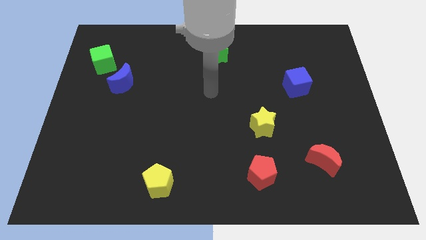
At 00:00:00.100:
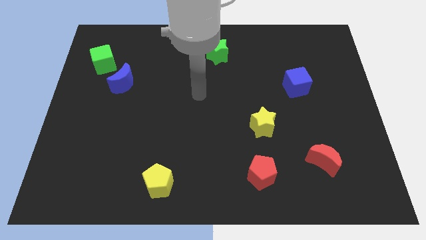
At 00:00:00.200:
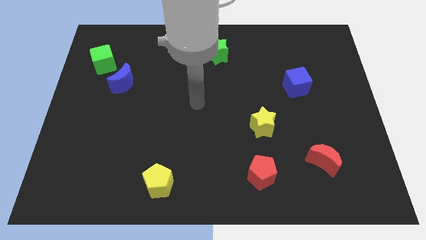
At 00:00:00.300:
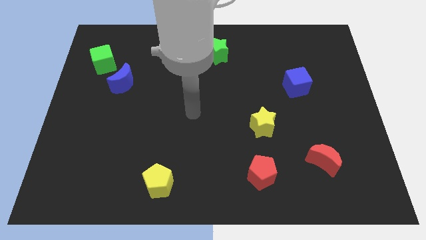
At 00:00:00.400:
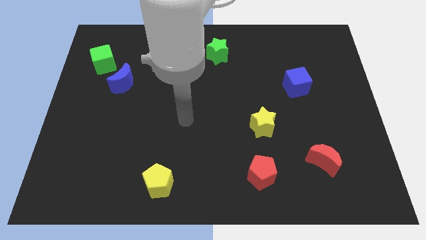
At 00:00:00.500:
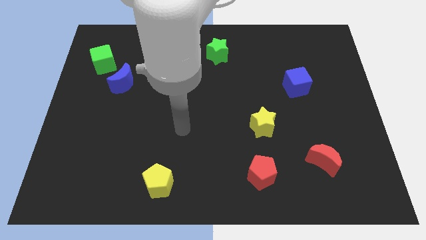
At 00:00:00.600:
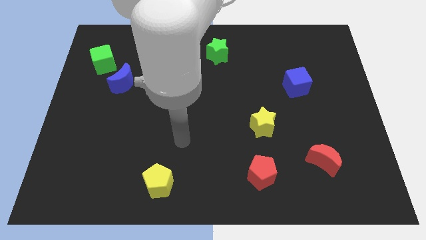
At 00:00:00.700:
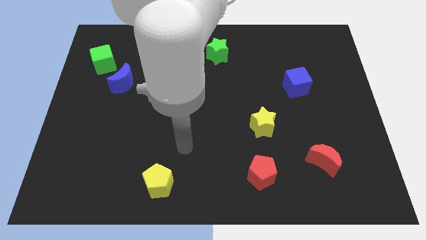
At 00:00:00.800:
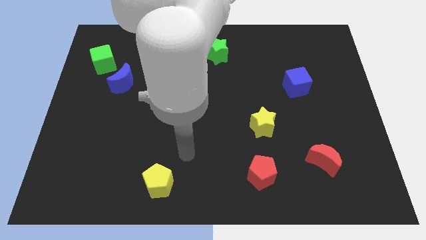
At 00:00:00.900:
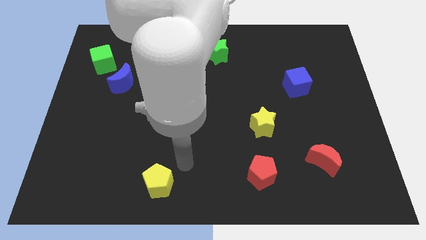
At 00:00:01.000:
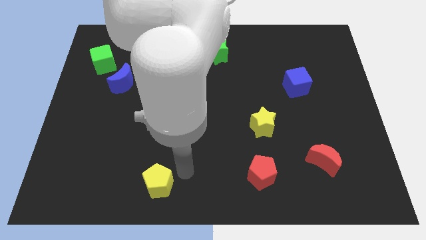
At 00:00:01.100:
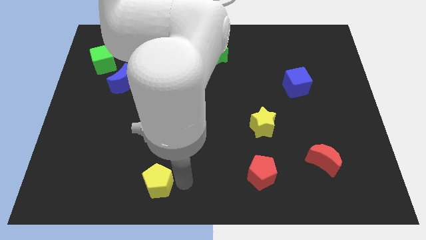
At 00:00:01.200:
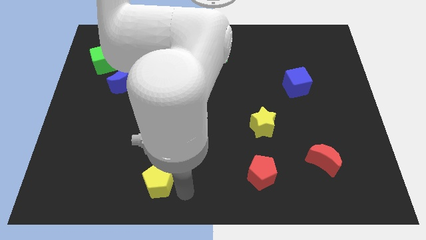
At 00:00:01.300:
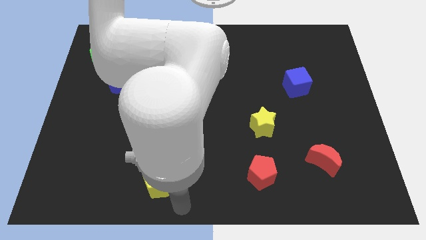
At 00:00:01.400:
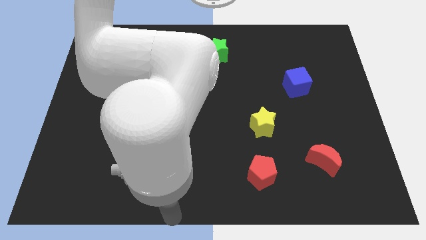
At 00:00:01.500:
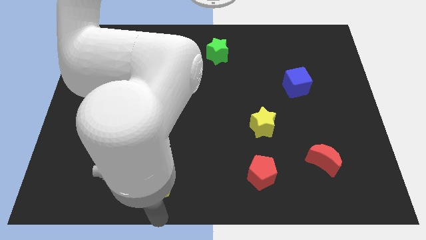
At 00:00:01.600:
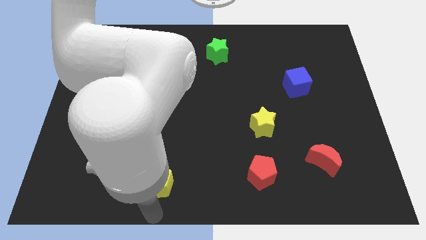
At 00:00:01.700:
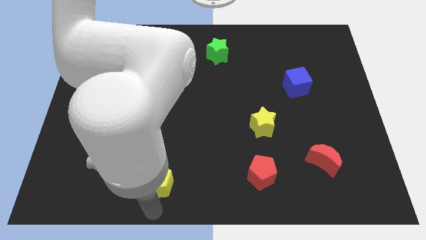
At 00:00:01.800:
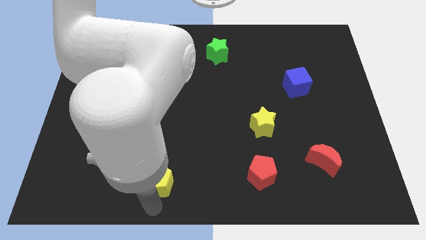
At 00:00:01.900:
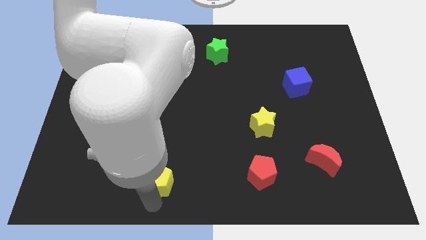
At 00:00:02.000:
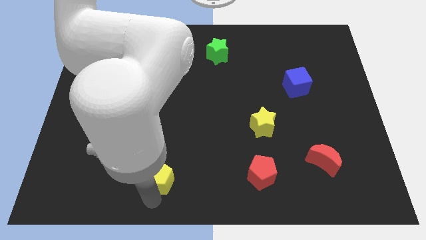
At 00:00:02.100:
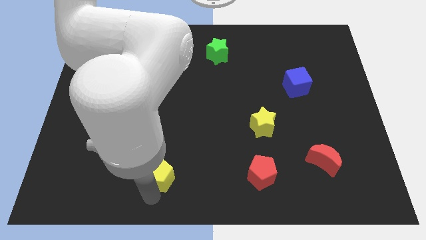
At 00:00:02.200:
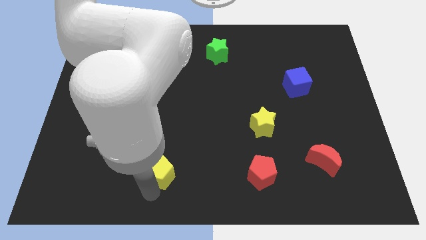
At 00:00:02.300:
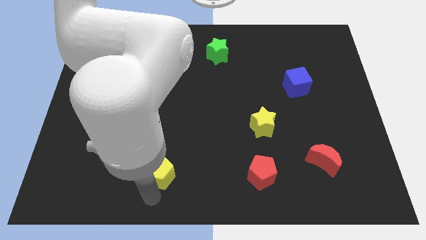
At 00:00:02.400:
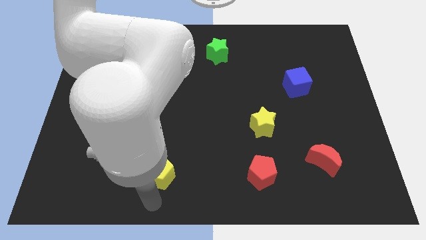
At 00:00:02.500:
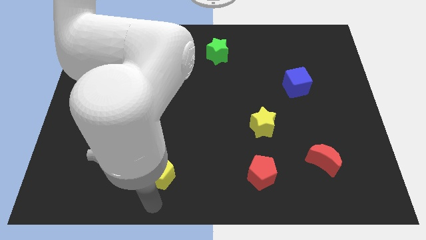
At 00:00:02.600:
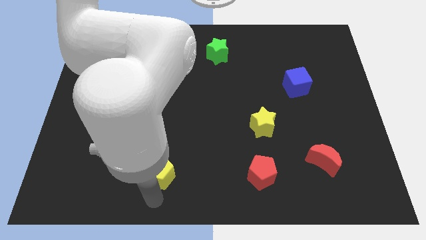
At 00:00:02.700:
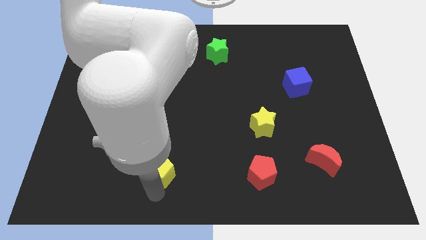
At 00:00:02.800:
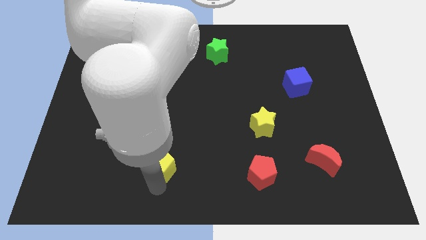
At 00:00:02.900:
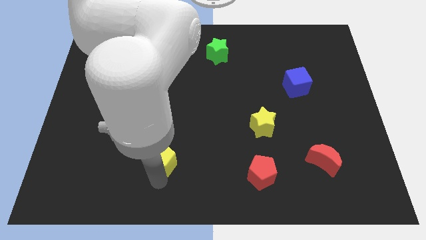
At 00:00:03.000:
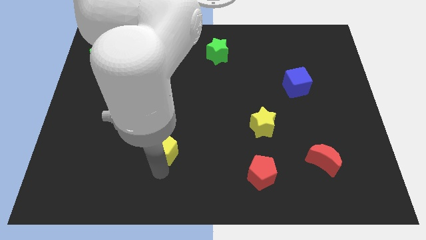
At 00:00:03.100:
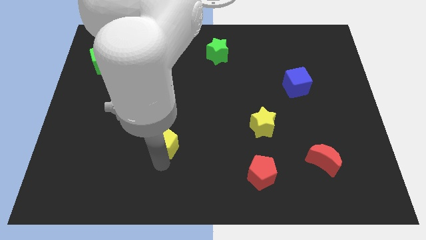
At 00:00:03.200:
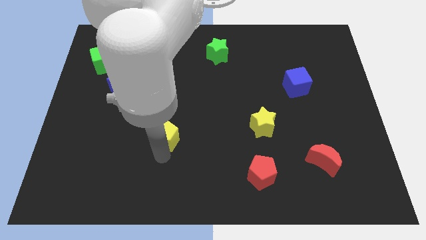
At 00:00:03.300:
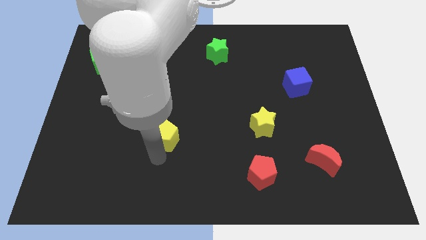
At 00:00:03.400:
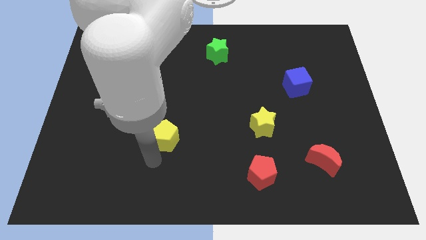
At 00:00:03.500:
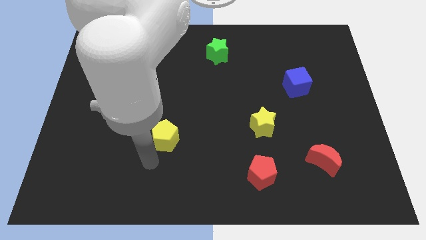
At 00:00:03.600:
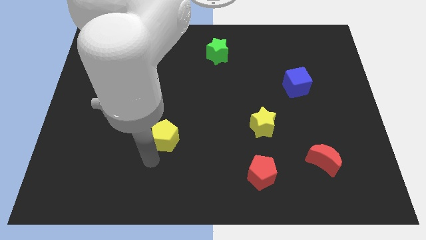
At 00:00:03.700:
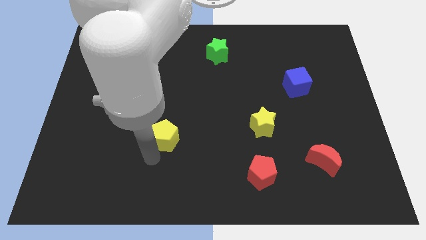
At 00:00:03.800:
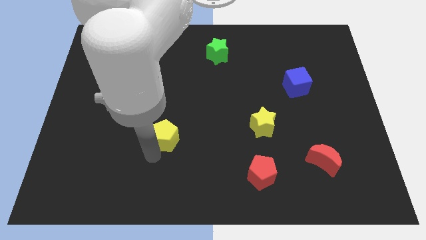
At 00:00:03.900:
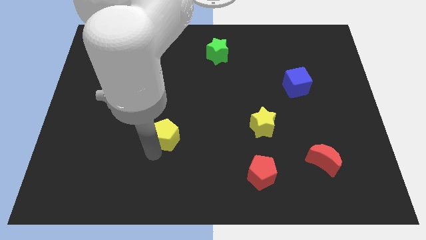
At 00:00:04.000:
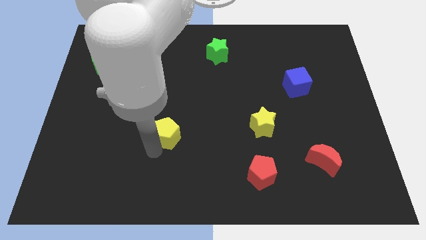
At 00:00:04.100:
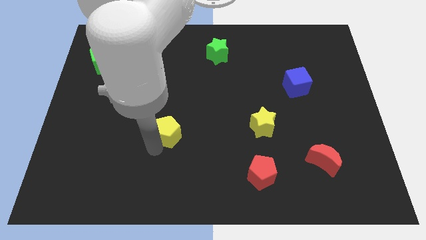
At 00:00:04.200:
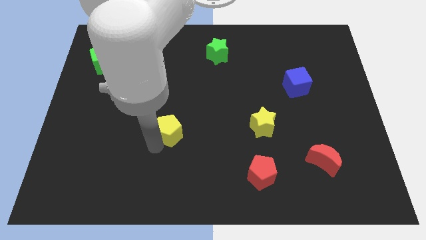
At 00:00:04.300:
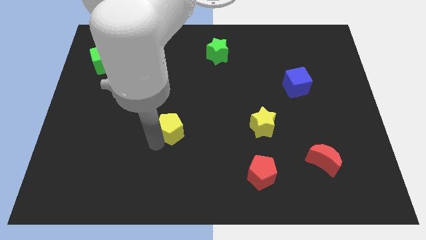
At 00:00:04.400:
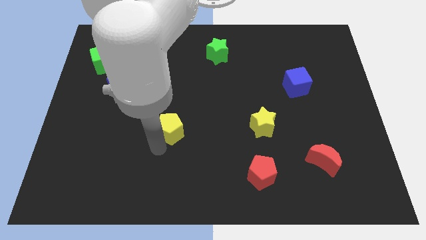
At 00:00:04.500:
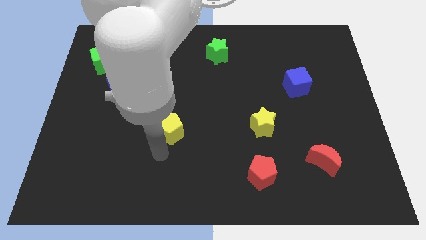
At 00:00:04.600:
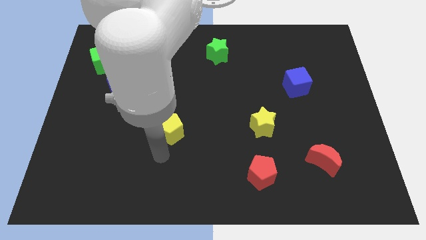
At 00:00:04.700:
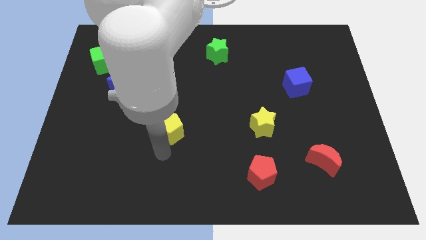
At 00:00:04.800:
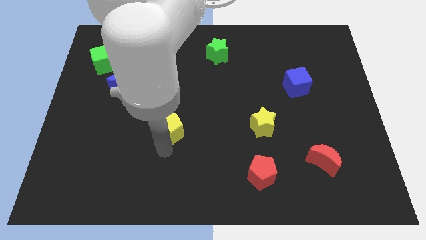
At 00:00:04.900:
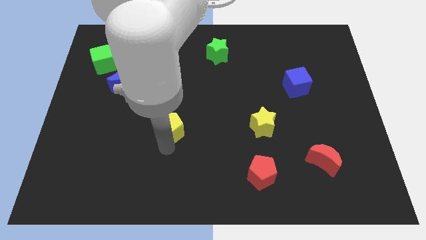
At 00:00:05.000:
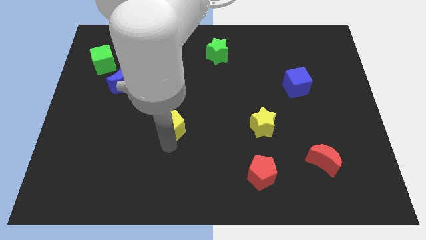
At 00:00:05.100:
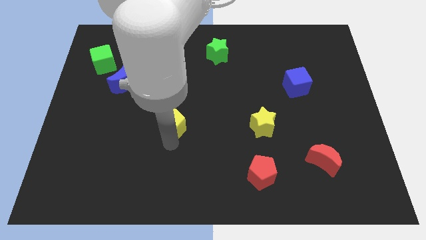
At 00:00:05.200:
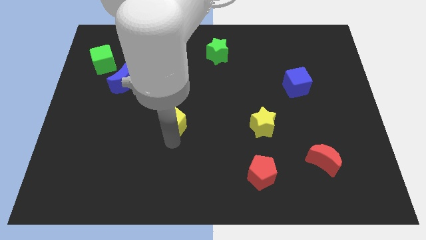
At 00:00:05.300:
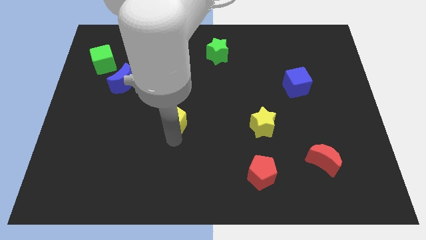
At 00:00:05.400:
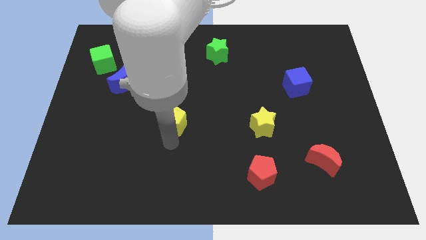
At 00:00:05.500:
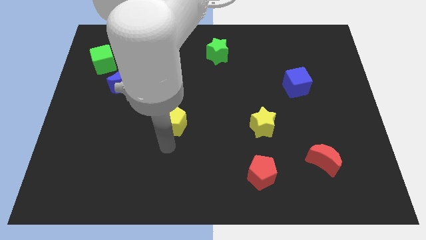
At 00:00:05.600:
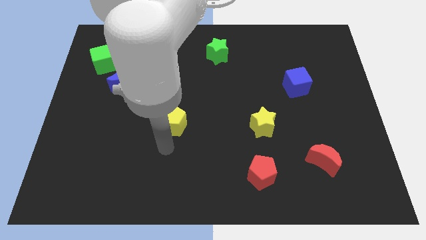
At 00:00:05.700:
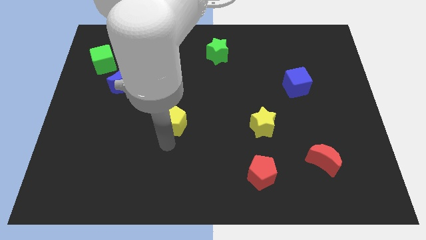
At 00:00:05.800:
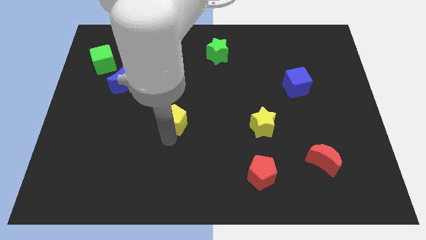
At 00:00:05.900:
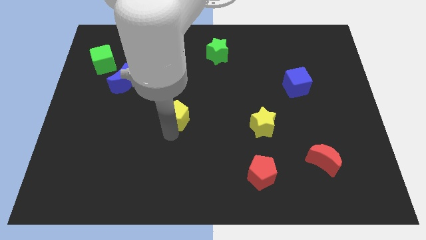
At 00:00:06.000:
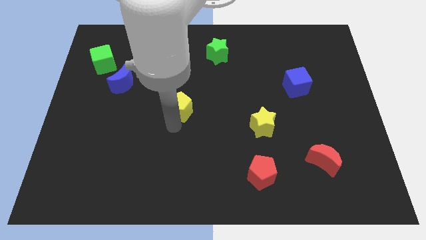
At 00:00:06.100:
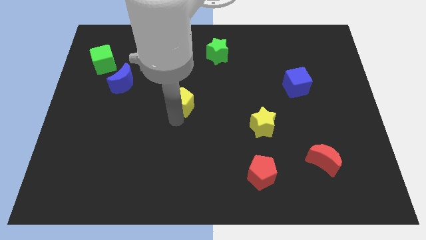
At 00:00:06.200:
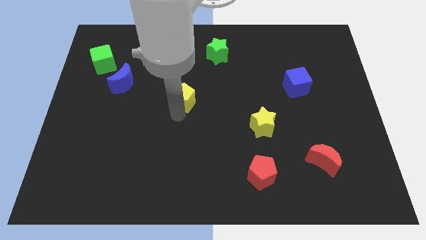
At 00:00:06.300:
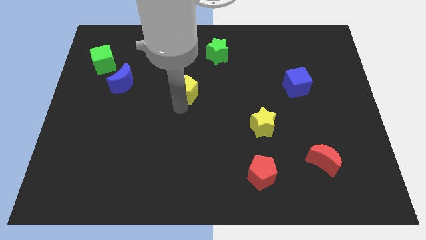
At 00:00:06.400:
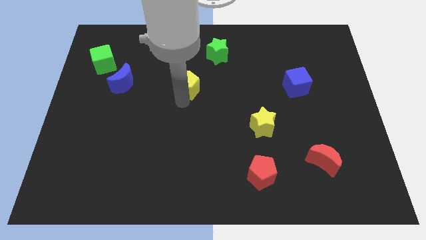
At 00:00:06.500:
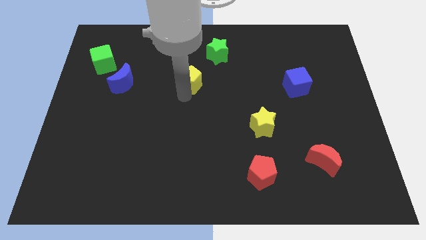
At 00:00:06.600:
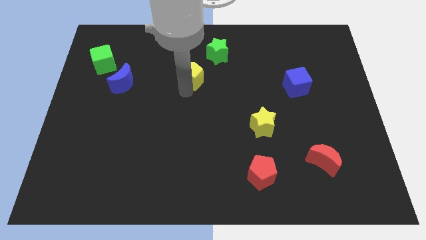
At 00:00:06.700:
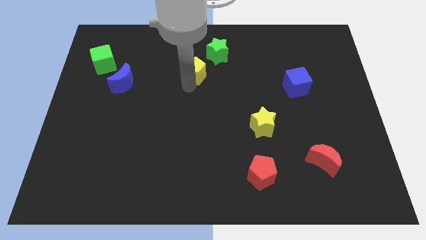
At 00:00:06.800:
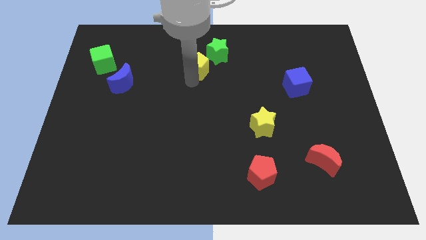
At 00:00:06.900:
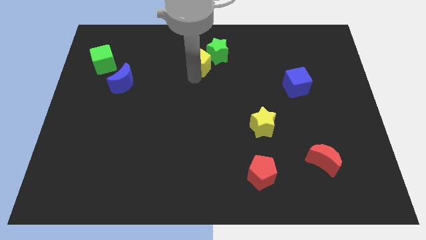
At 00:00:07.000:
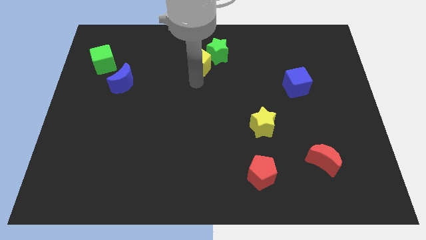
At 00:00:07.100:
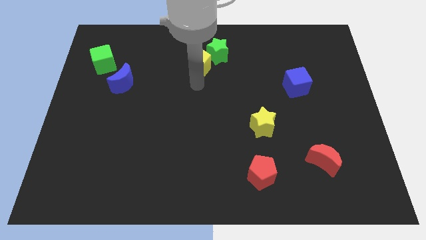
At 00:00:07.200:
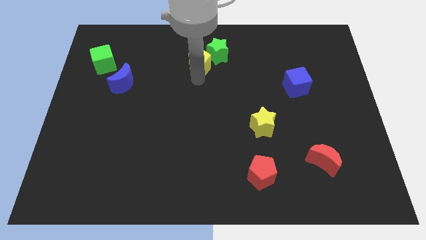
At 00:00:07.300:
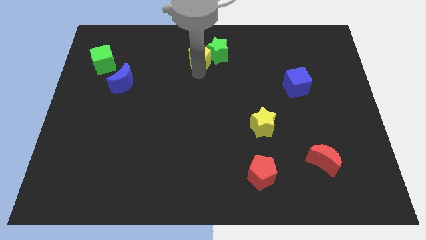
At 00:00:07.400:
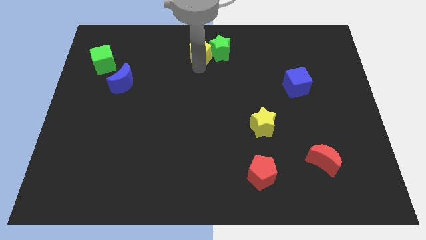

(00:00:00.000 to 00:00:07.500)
push the yellow pentagon to the top
